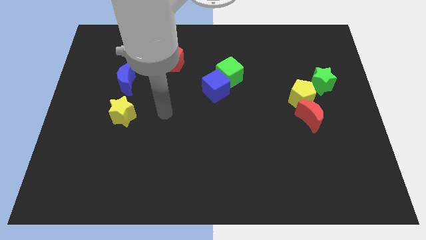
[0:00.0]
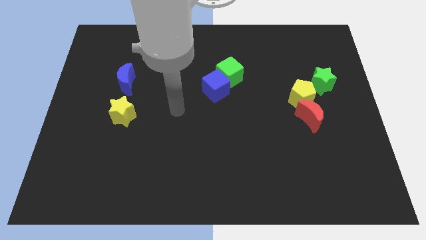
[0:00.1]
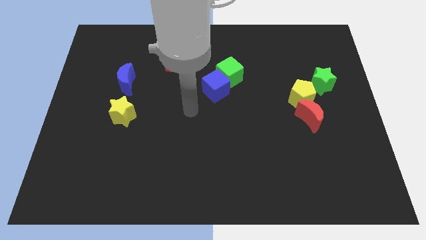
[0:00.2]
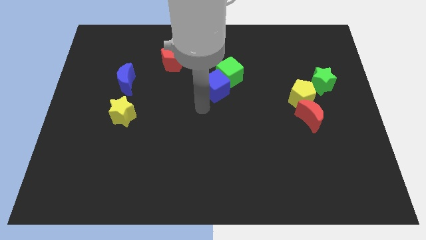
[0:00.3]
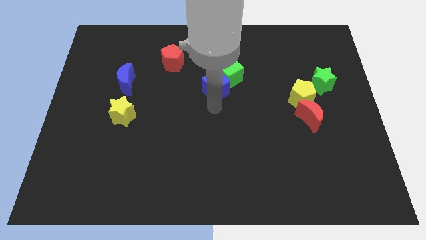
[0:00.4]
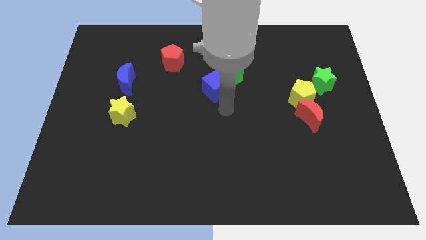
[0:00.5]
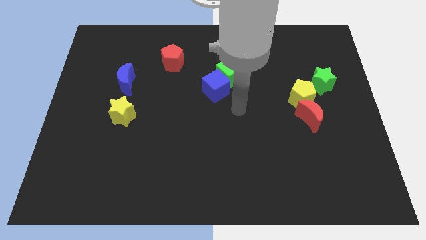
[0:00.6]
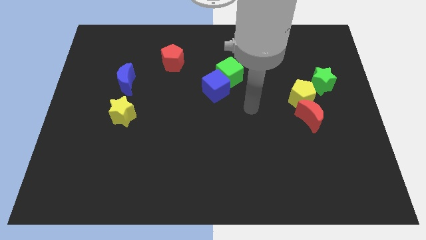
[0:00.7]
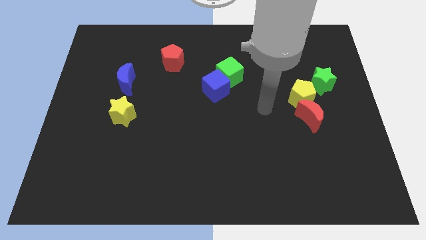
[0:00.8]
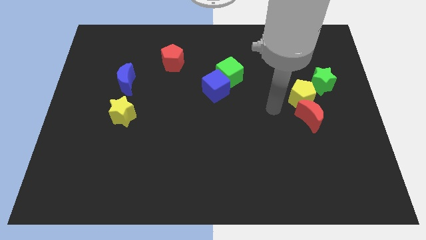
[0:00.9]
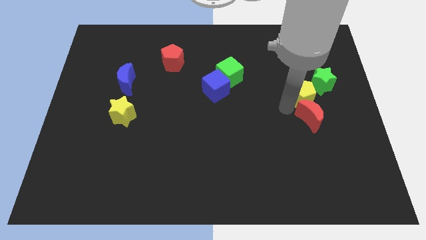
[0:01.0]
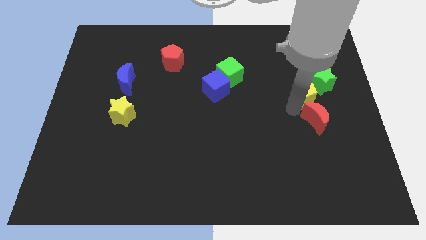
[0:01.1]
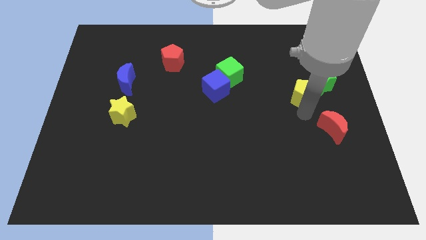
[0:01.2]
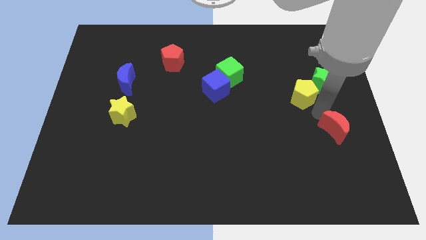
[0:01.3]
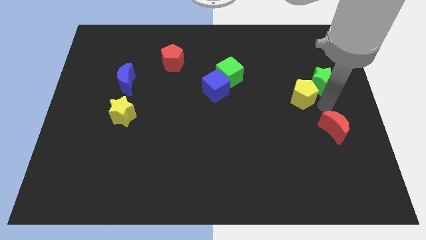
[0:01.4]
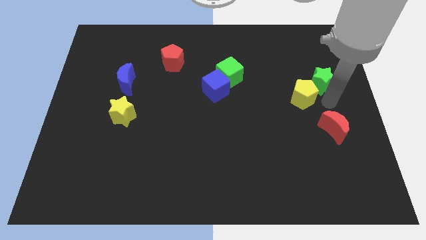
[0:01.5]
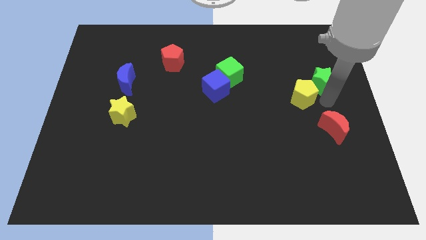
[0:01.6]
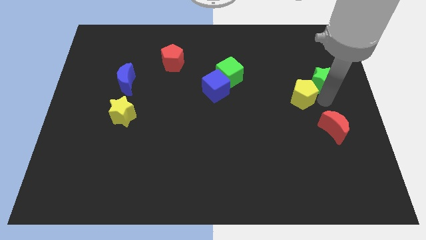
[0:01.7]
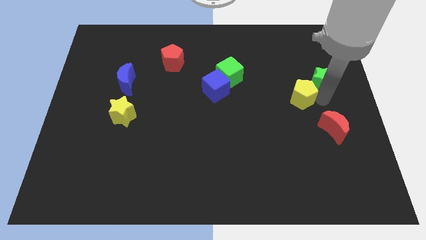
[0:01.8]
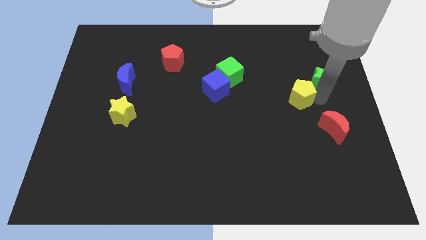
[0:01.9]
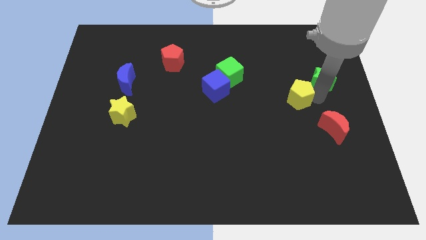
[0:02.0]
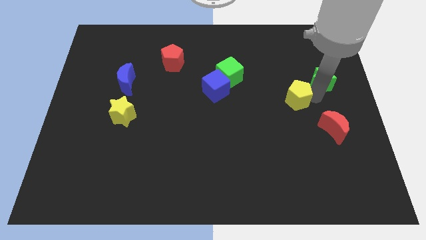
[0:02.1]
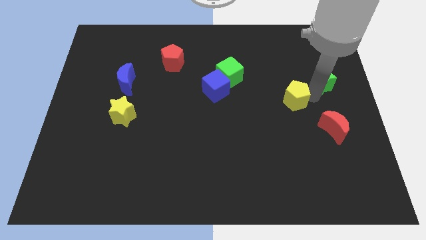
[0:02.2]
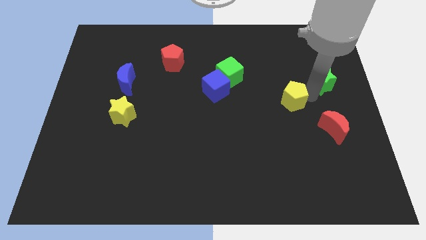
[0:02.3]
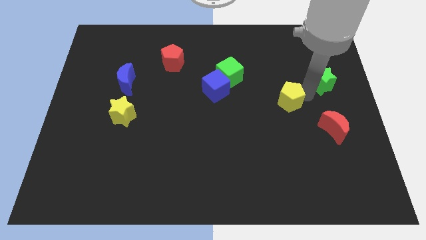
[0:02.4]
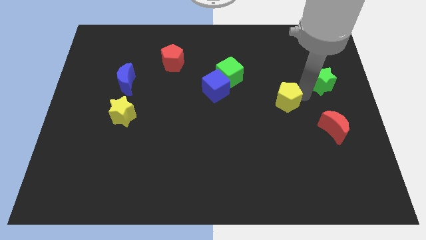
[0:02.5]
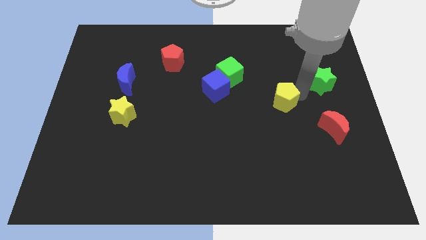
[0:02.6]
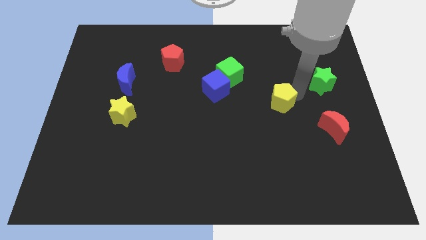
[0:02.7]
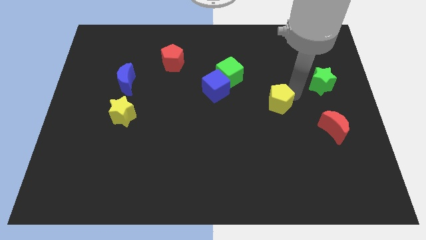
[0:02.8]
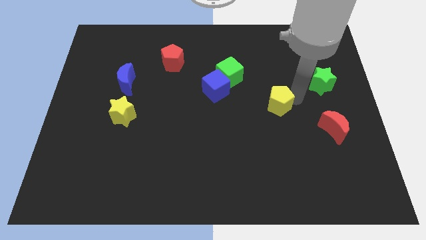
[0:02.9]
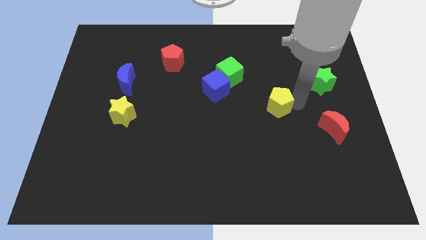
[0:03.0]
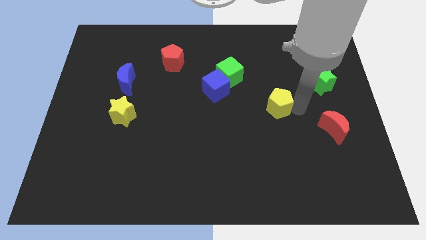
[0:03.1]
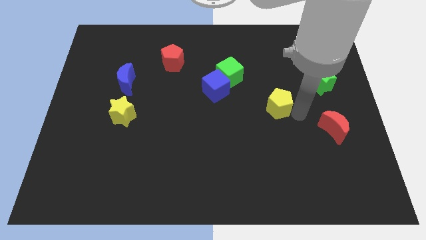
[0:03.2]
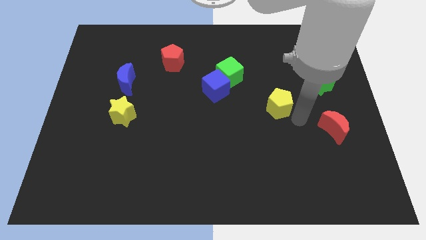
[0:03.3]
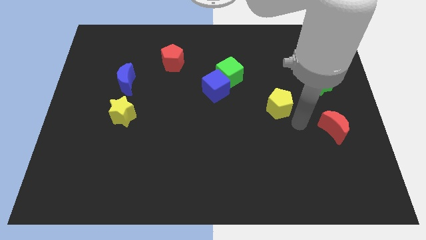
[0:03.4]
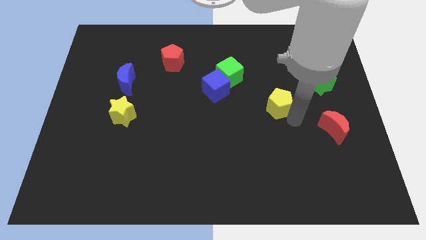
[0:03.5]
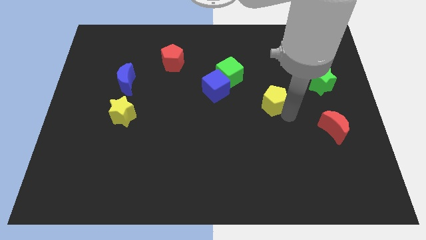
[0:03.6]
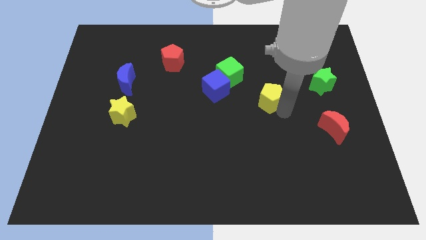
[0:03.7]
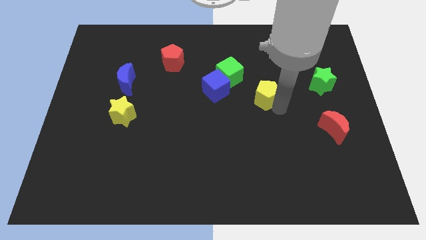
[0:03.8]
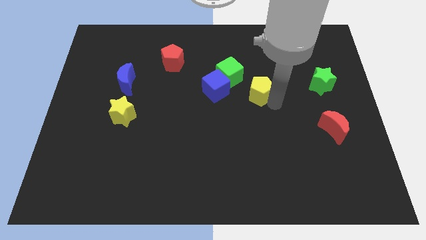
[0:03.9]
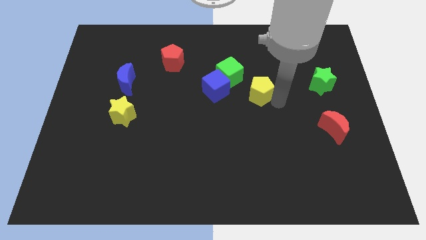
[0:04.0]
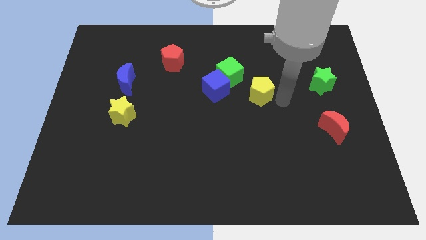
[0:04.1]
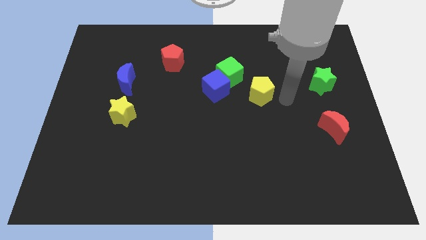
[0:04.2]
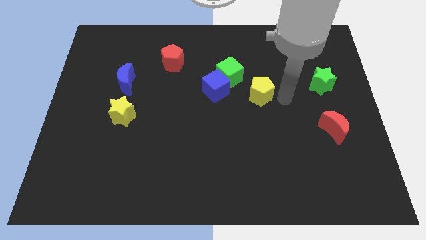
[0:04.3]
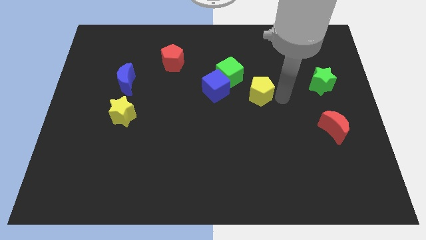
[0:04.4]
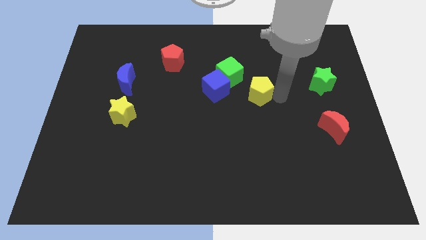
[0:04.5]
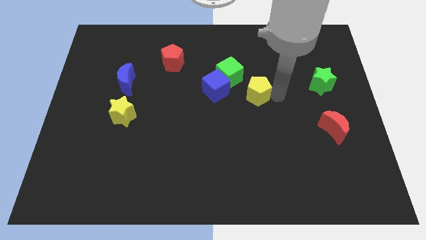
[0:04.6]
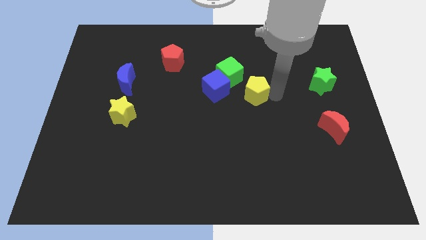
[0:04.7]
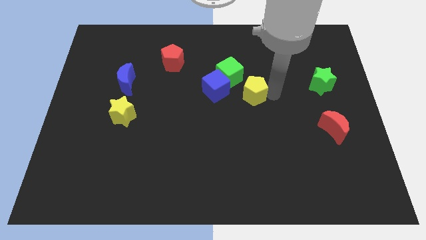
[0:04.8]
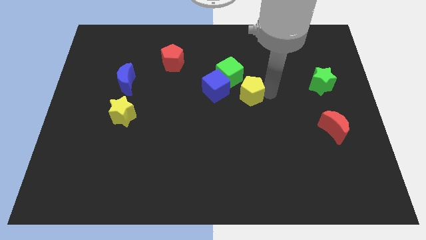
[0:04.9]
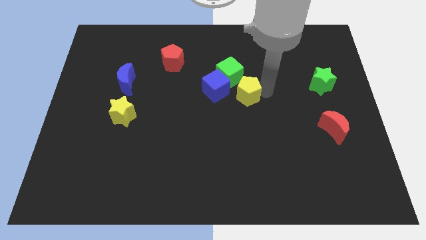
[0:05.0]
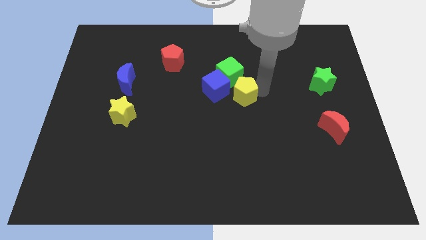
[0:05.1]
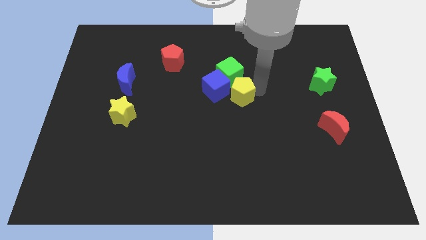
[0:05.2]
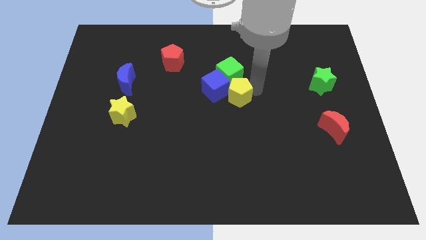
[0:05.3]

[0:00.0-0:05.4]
put the yellow pentagon close to the blue cube

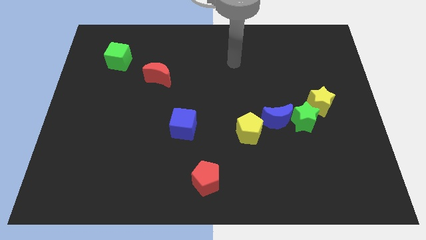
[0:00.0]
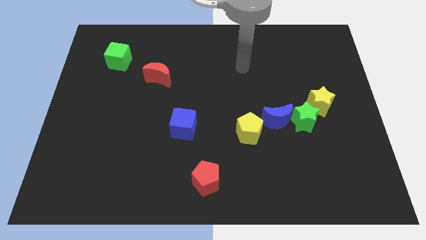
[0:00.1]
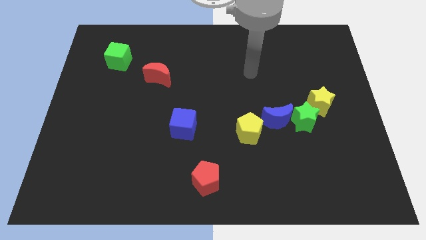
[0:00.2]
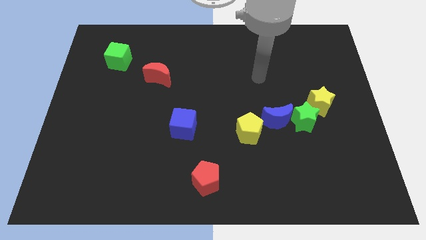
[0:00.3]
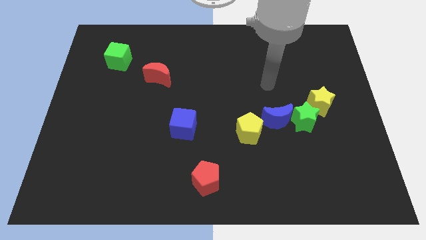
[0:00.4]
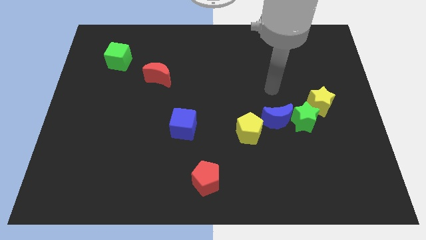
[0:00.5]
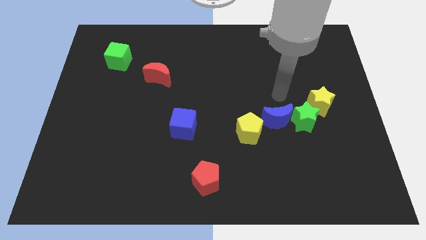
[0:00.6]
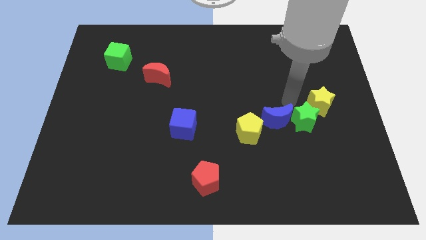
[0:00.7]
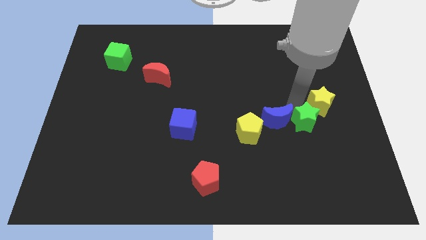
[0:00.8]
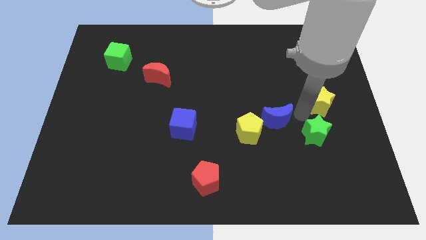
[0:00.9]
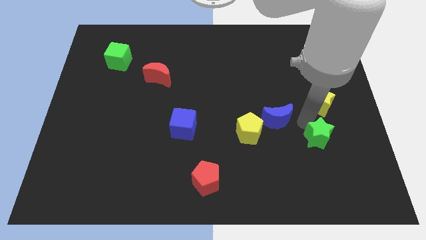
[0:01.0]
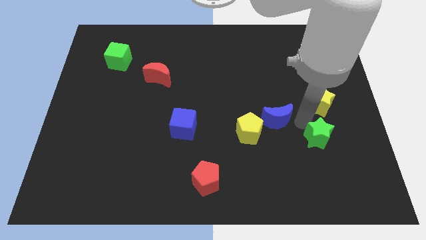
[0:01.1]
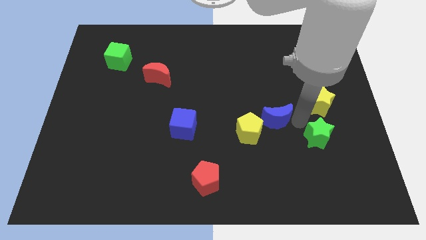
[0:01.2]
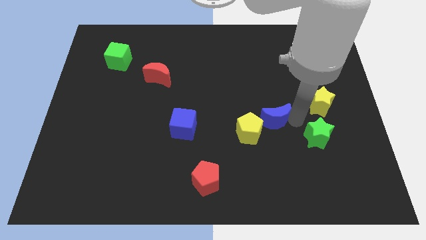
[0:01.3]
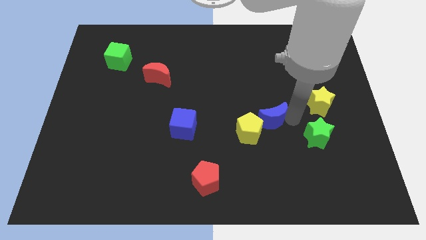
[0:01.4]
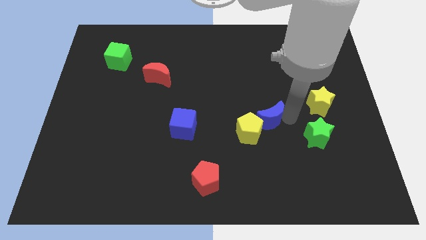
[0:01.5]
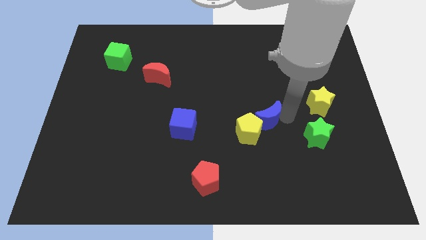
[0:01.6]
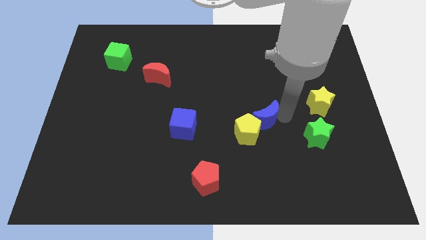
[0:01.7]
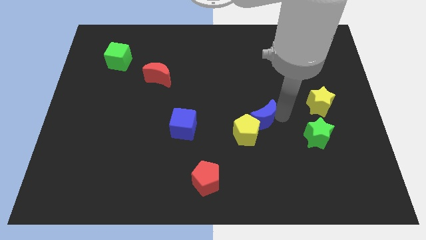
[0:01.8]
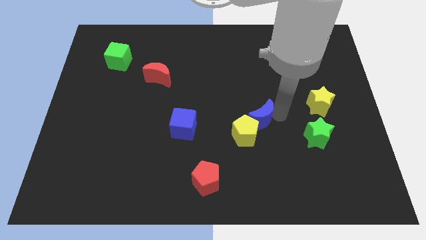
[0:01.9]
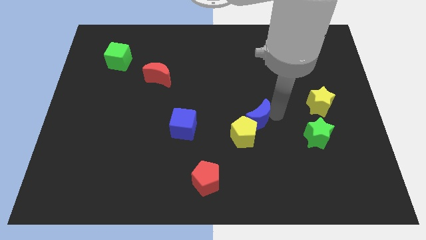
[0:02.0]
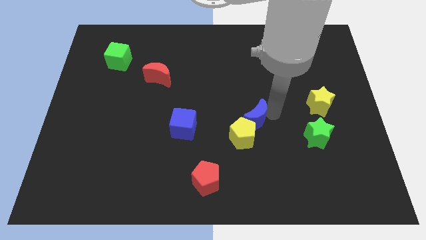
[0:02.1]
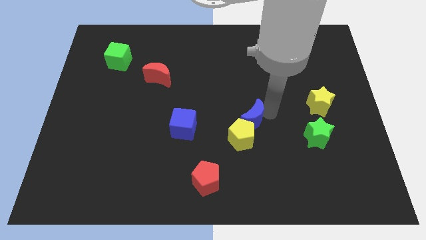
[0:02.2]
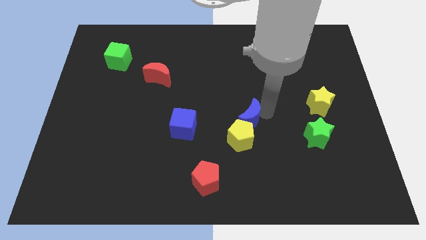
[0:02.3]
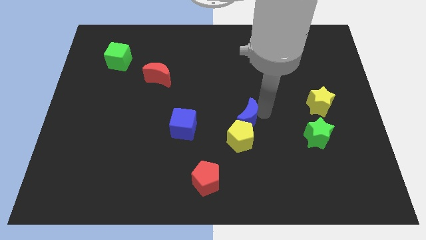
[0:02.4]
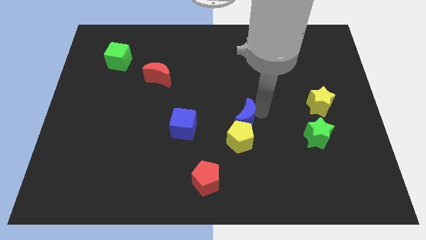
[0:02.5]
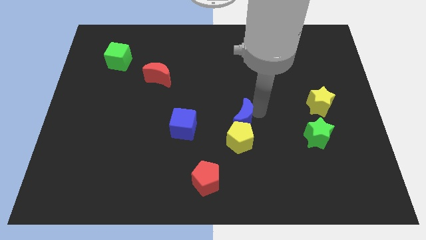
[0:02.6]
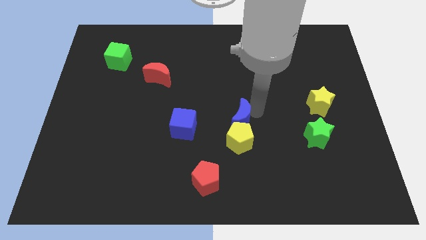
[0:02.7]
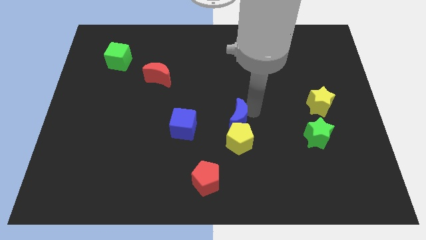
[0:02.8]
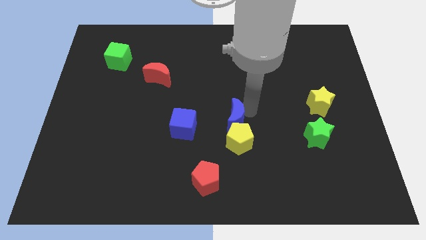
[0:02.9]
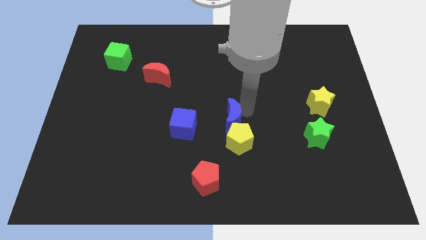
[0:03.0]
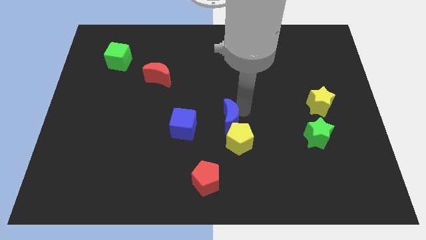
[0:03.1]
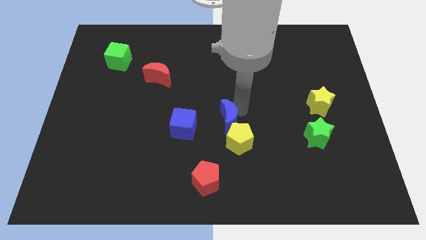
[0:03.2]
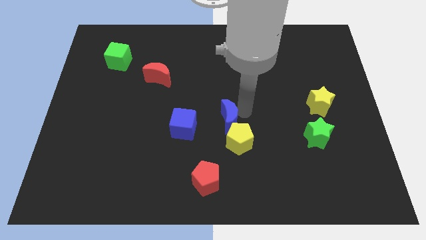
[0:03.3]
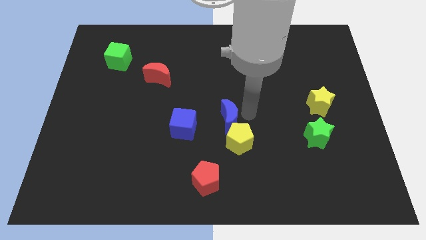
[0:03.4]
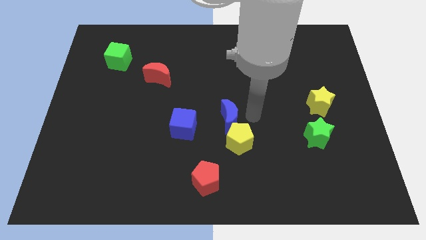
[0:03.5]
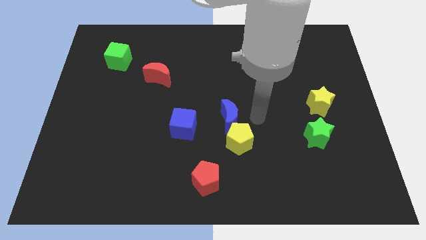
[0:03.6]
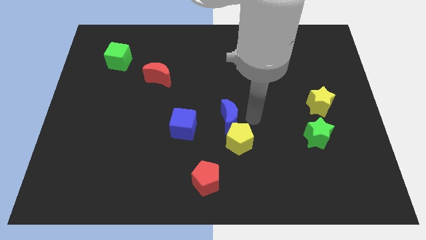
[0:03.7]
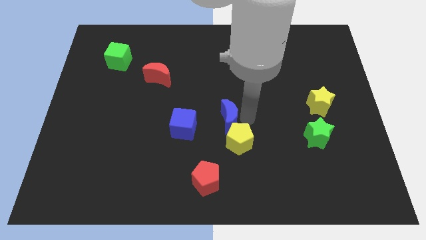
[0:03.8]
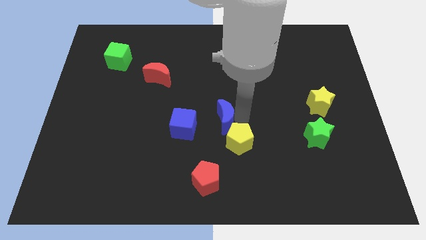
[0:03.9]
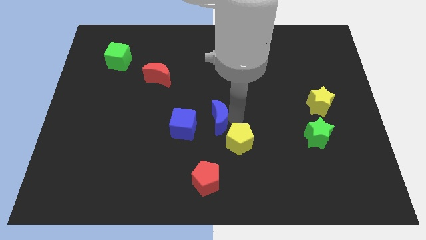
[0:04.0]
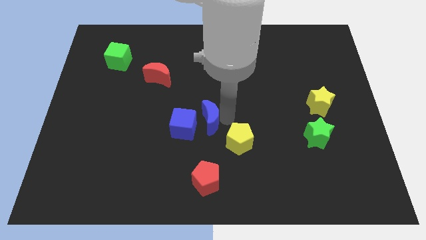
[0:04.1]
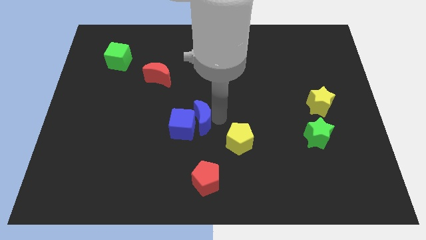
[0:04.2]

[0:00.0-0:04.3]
slide the blue moon towards the blue cube
